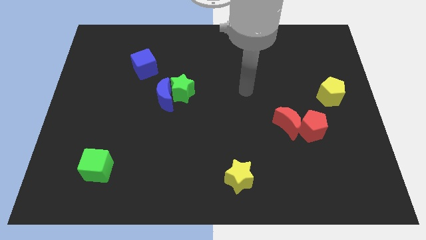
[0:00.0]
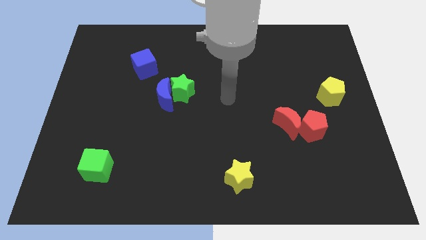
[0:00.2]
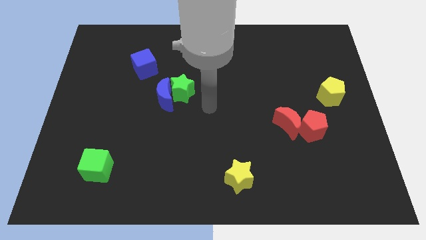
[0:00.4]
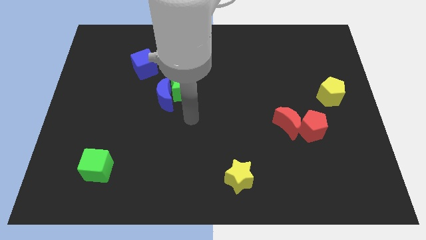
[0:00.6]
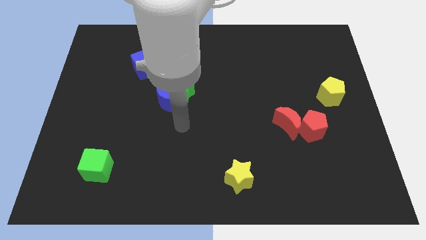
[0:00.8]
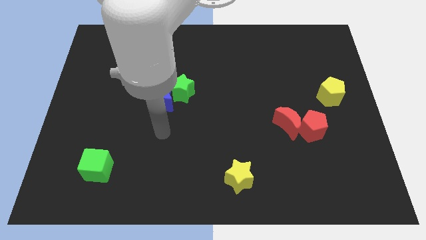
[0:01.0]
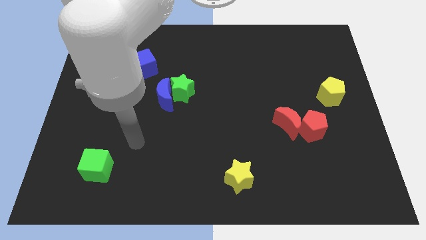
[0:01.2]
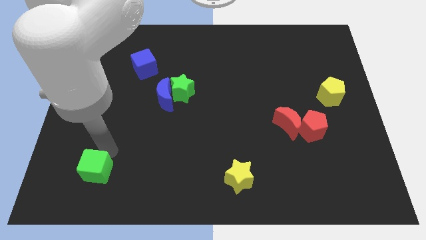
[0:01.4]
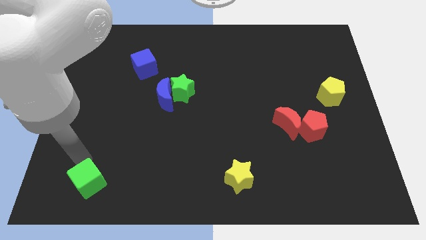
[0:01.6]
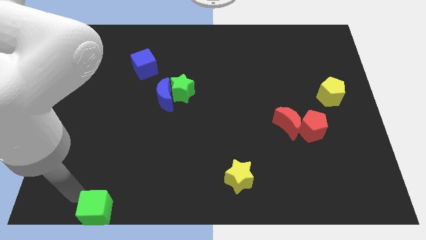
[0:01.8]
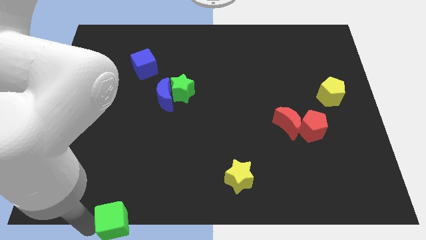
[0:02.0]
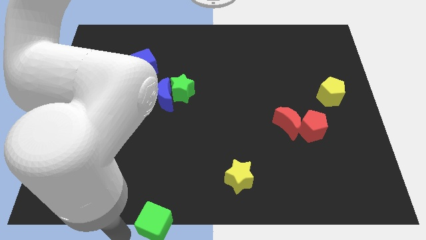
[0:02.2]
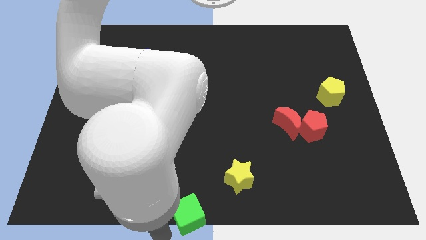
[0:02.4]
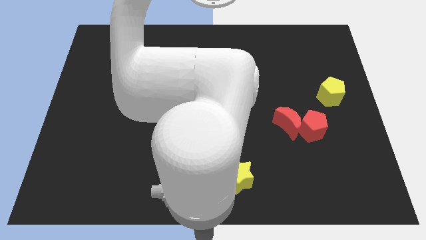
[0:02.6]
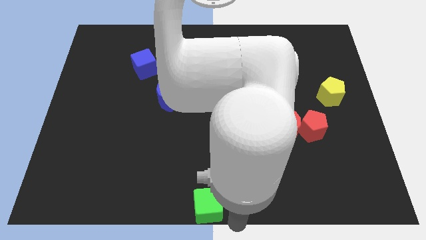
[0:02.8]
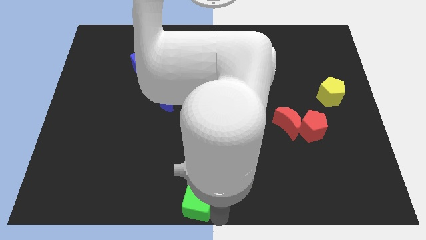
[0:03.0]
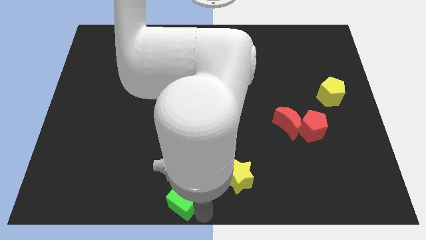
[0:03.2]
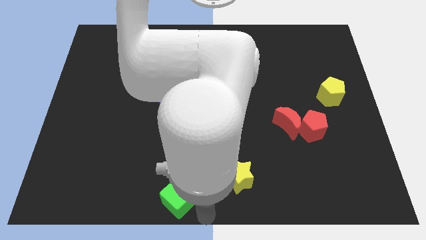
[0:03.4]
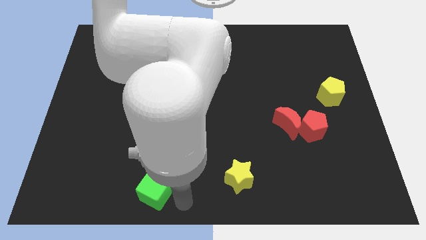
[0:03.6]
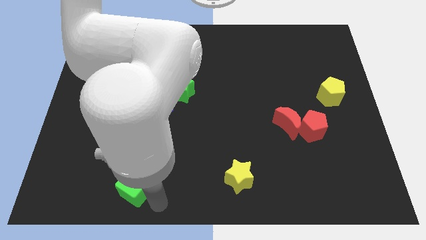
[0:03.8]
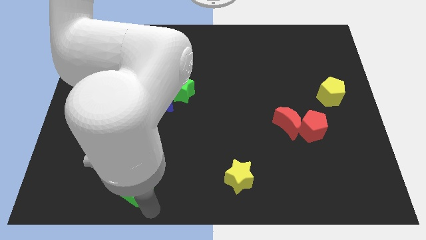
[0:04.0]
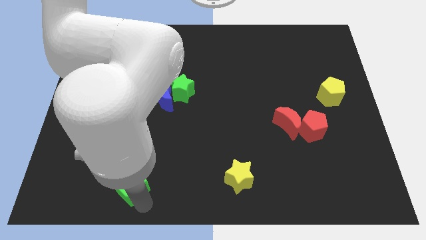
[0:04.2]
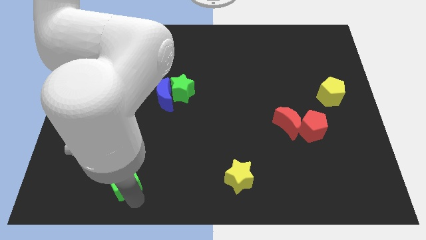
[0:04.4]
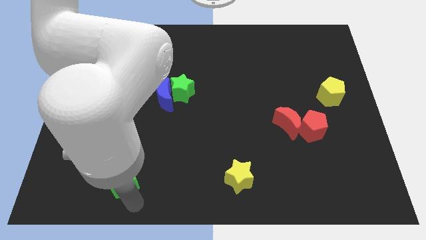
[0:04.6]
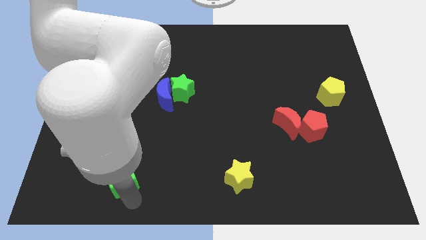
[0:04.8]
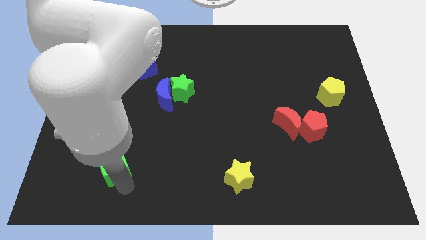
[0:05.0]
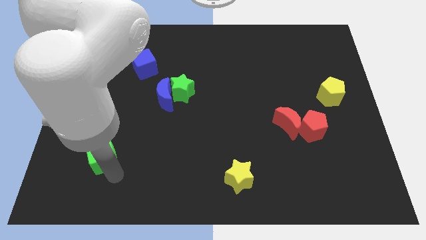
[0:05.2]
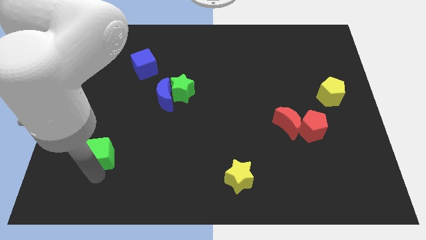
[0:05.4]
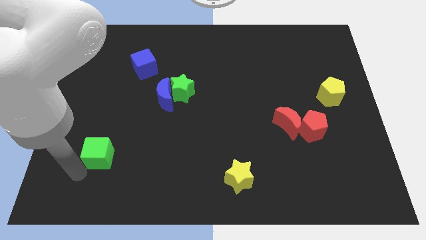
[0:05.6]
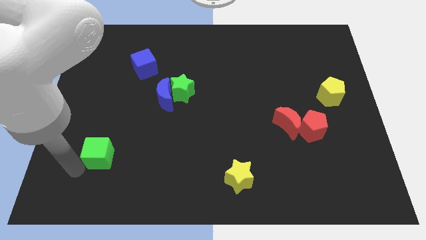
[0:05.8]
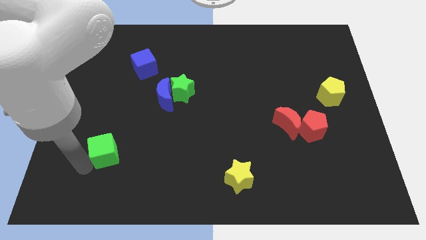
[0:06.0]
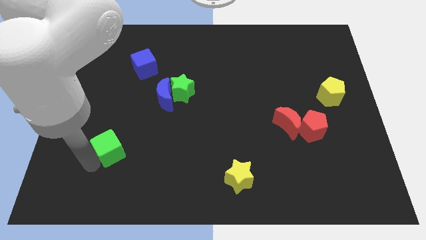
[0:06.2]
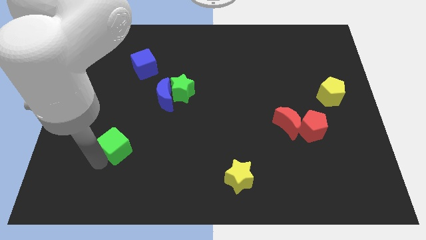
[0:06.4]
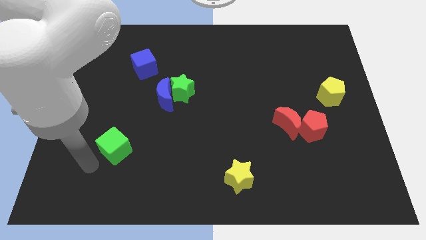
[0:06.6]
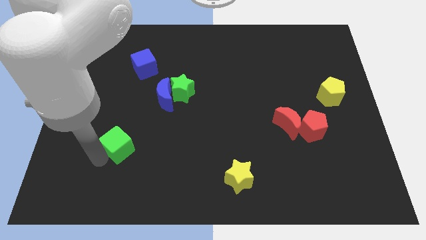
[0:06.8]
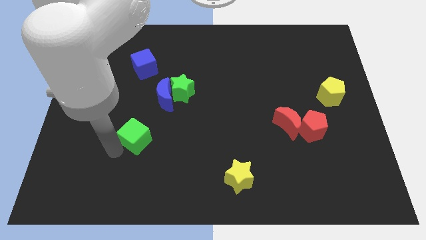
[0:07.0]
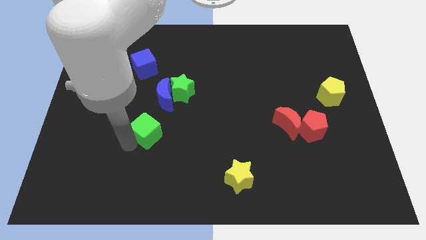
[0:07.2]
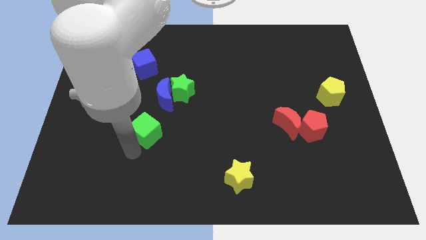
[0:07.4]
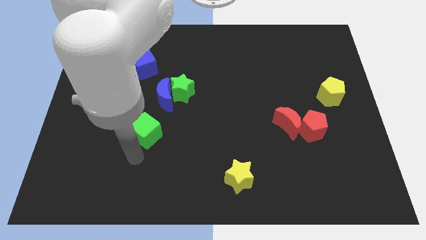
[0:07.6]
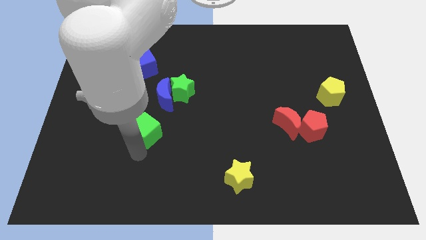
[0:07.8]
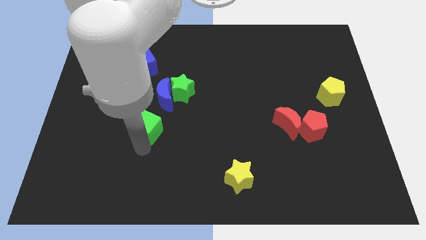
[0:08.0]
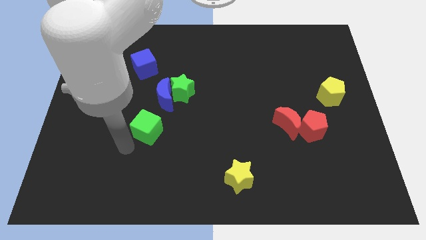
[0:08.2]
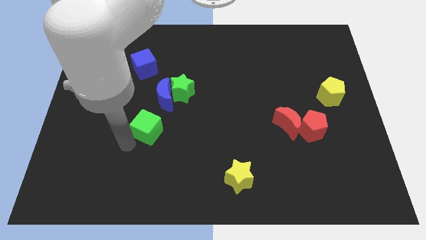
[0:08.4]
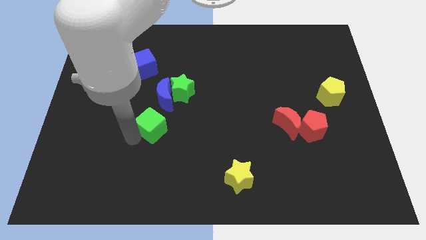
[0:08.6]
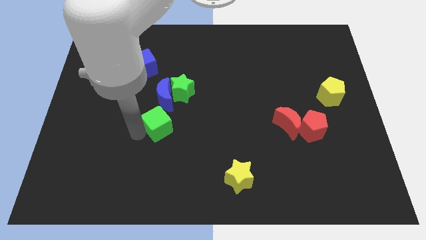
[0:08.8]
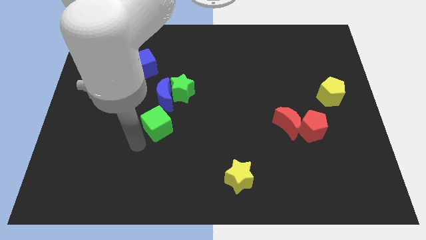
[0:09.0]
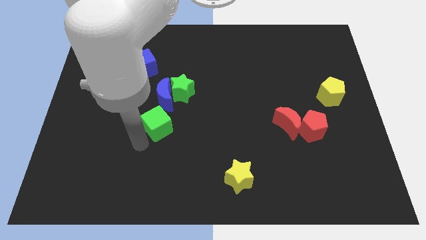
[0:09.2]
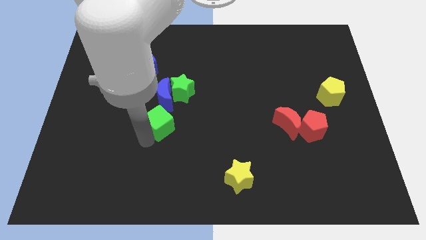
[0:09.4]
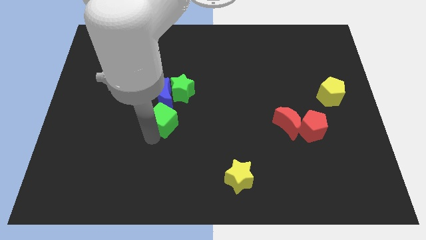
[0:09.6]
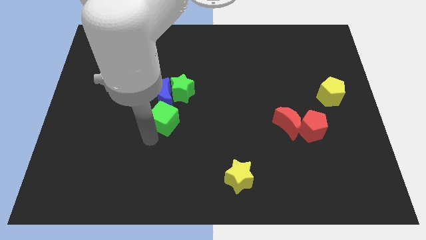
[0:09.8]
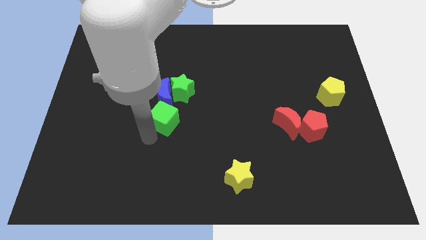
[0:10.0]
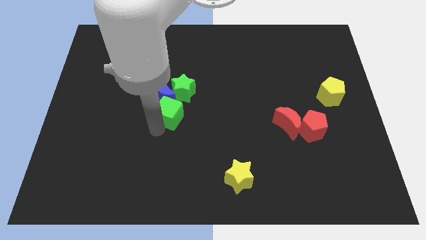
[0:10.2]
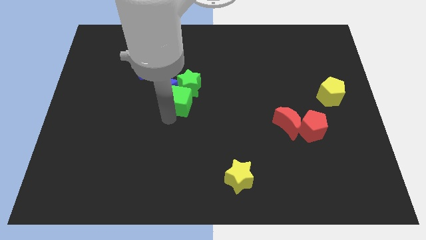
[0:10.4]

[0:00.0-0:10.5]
push the green cube close to the green star

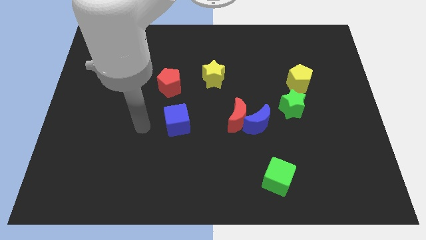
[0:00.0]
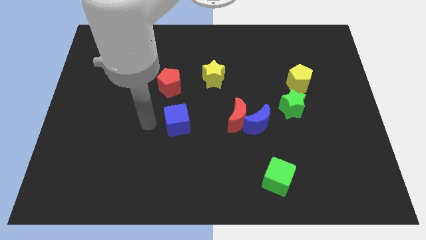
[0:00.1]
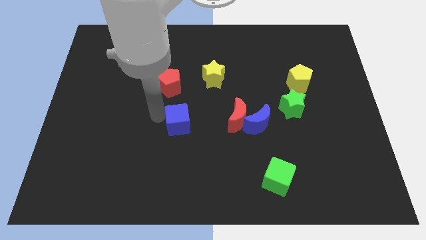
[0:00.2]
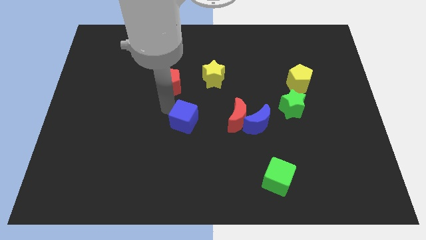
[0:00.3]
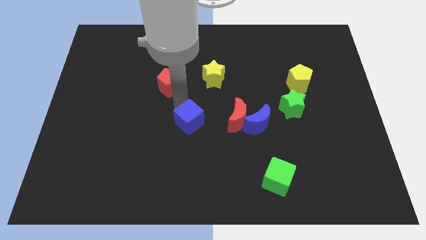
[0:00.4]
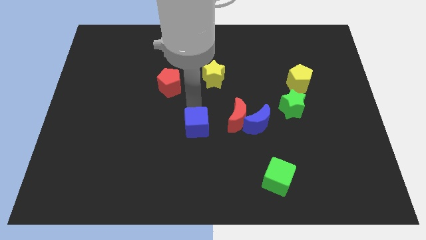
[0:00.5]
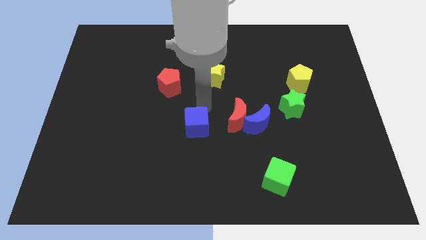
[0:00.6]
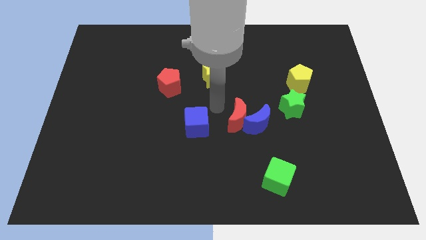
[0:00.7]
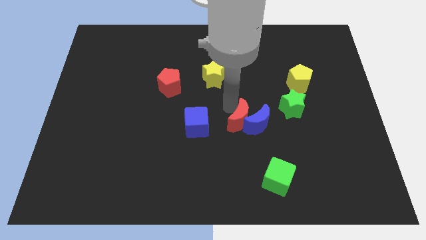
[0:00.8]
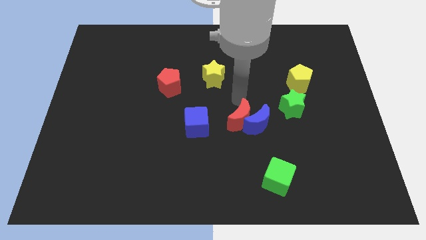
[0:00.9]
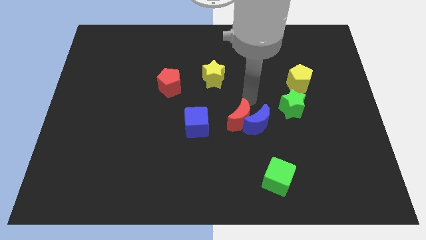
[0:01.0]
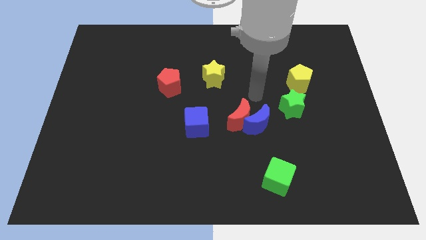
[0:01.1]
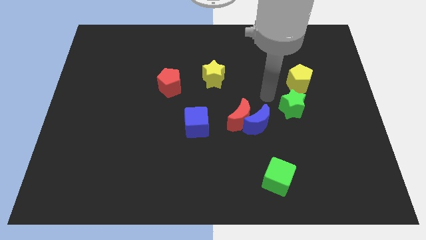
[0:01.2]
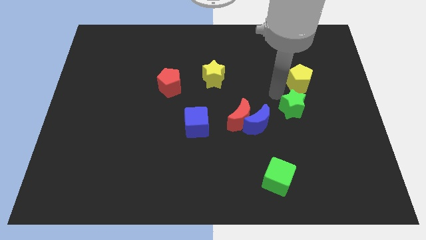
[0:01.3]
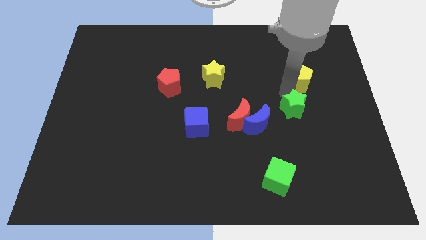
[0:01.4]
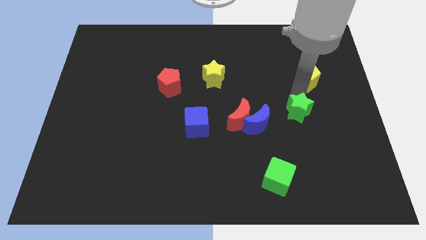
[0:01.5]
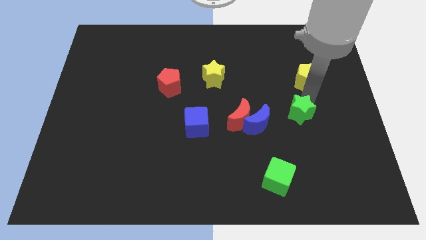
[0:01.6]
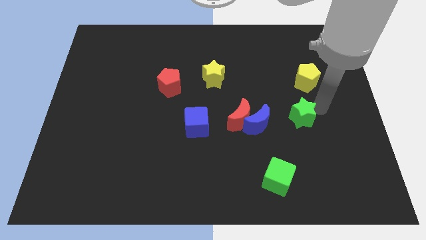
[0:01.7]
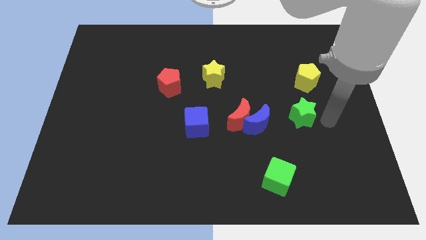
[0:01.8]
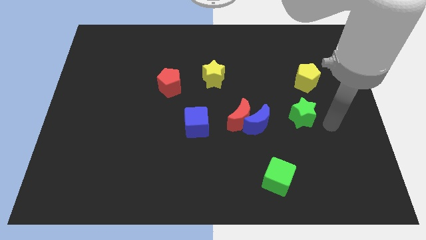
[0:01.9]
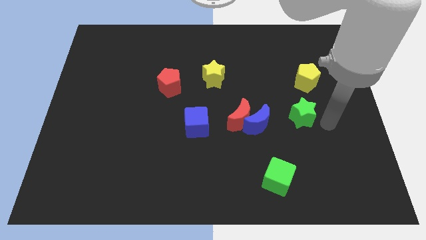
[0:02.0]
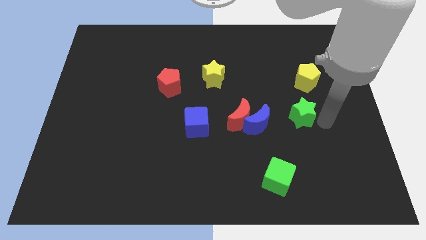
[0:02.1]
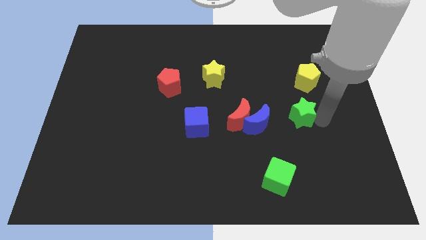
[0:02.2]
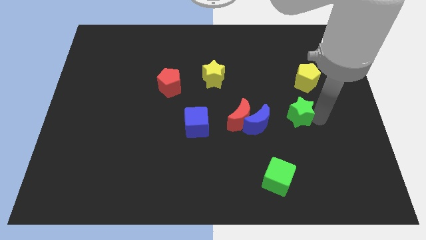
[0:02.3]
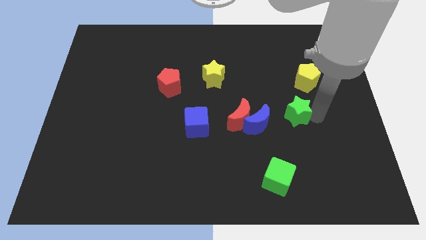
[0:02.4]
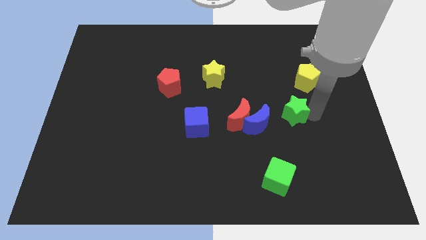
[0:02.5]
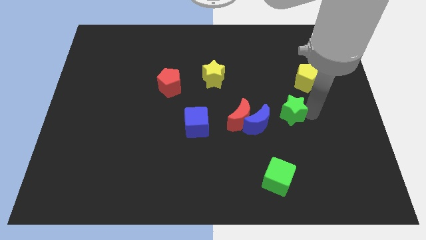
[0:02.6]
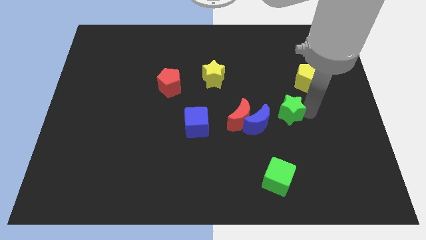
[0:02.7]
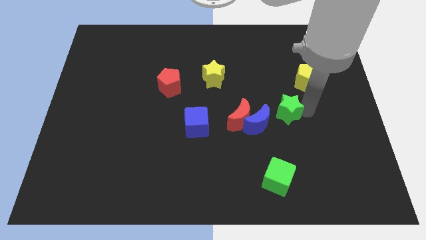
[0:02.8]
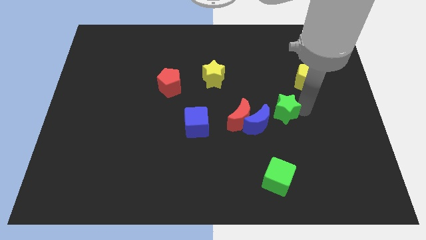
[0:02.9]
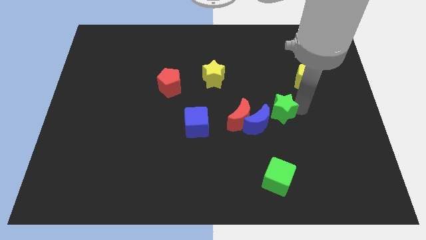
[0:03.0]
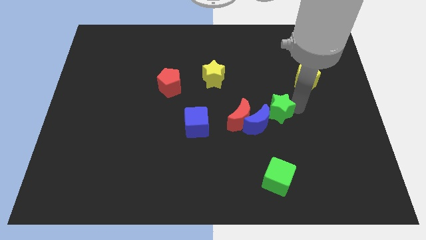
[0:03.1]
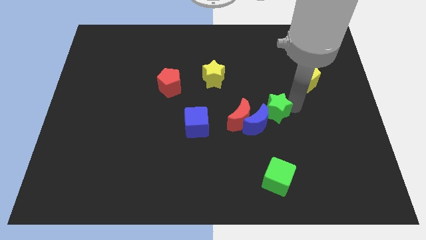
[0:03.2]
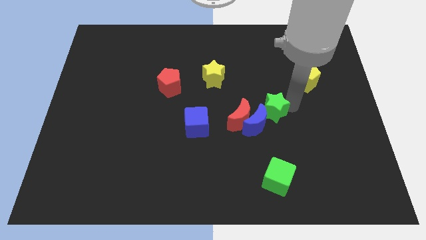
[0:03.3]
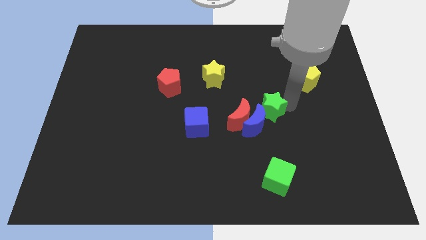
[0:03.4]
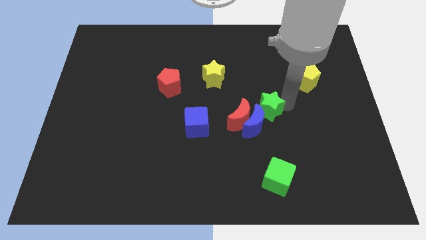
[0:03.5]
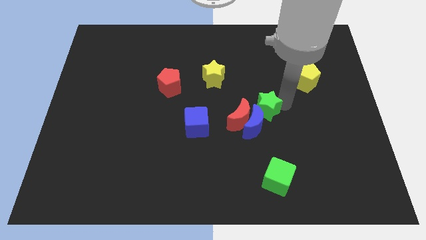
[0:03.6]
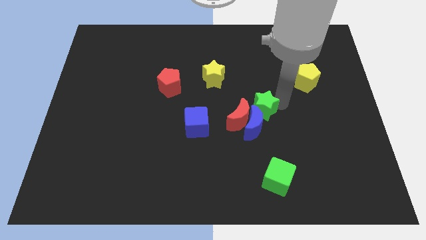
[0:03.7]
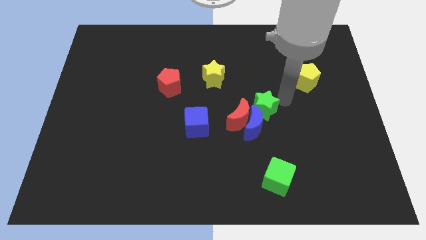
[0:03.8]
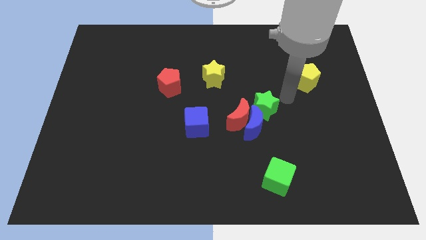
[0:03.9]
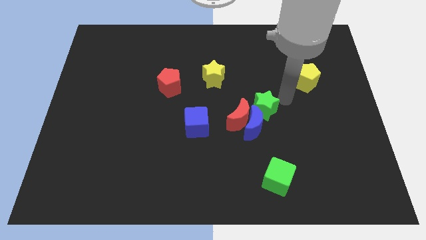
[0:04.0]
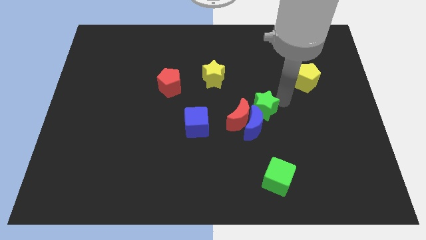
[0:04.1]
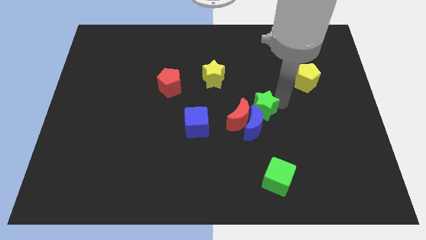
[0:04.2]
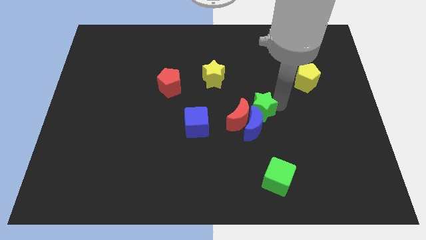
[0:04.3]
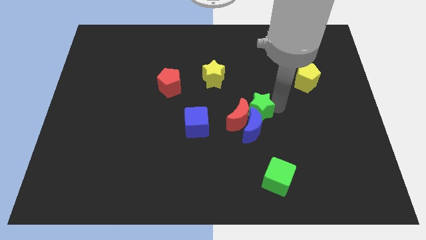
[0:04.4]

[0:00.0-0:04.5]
put the green star next to the red moon
